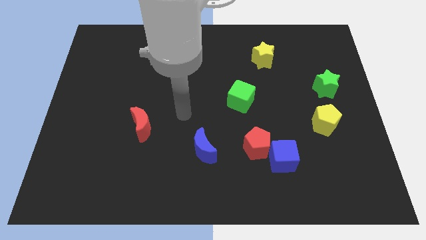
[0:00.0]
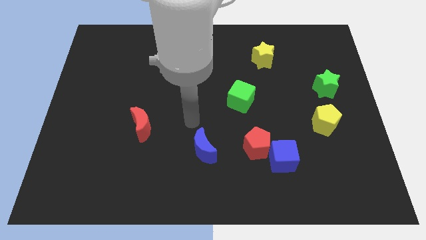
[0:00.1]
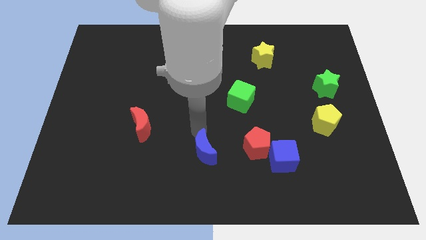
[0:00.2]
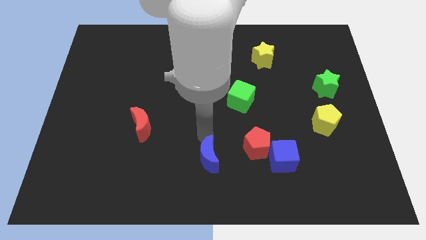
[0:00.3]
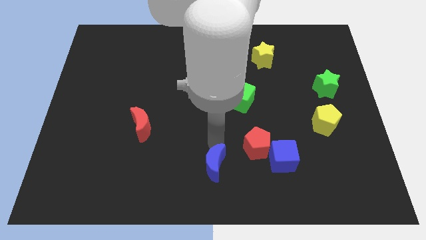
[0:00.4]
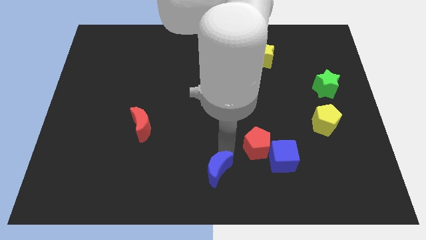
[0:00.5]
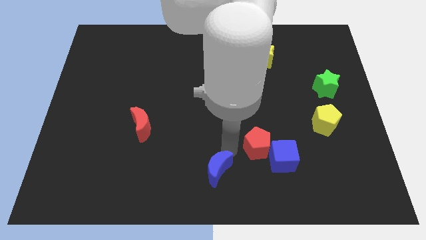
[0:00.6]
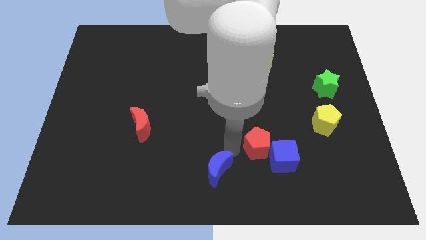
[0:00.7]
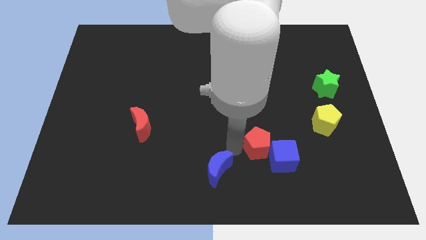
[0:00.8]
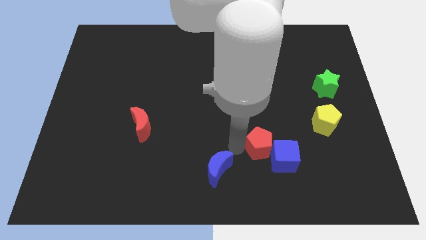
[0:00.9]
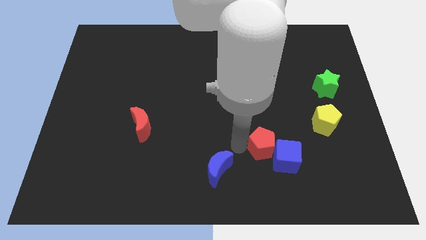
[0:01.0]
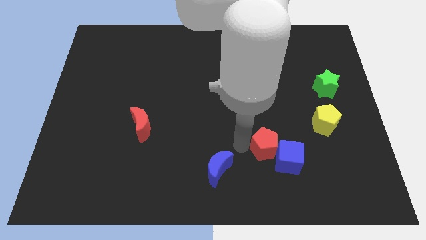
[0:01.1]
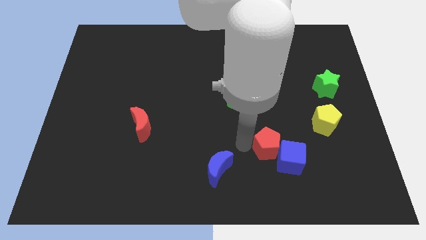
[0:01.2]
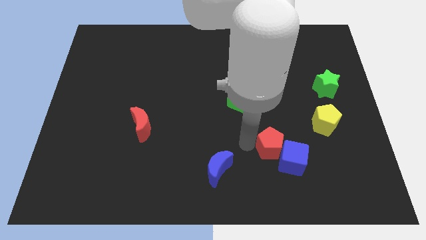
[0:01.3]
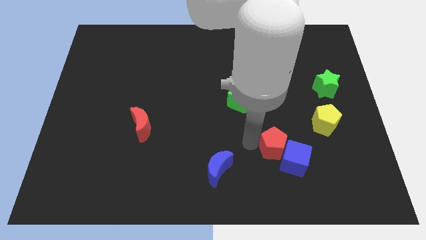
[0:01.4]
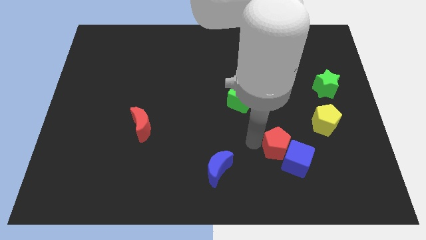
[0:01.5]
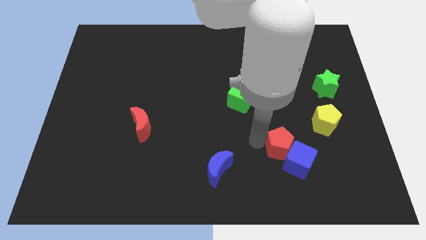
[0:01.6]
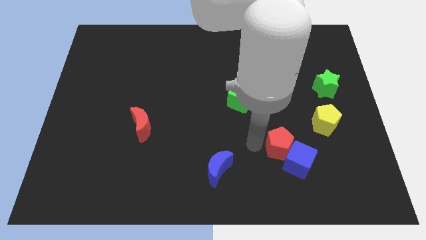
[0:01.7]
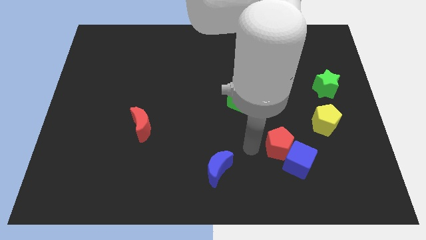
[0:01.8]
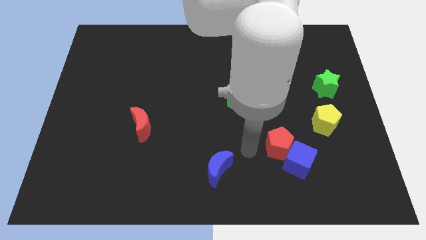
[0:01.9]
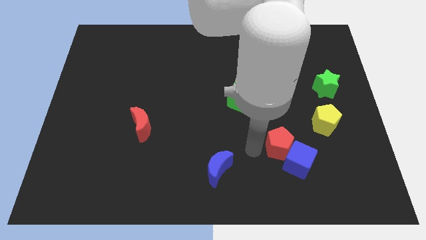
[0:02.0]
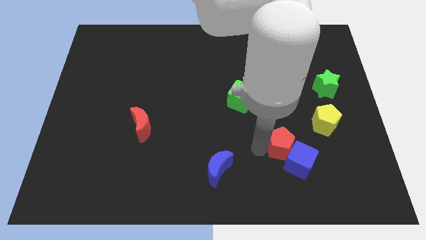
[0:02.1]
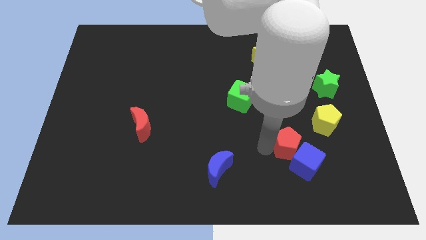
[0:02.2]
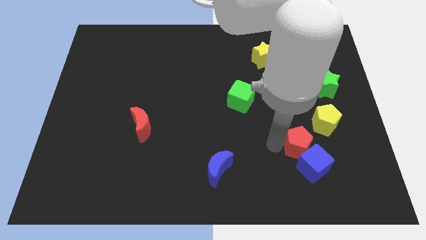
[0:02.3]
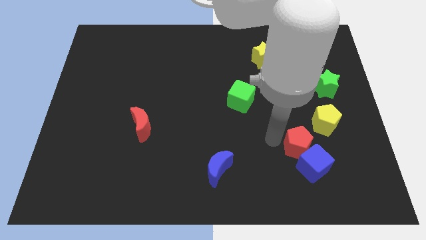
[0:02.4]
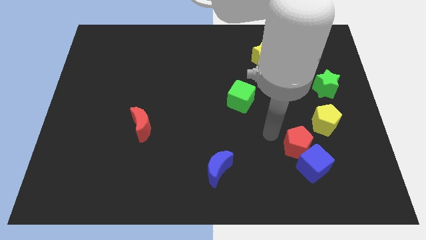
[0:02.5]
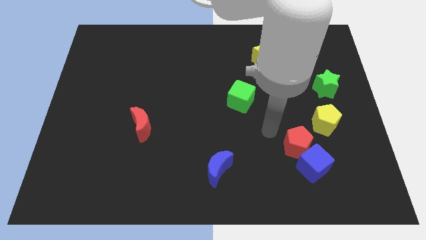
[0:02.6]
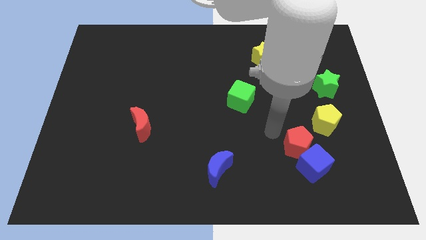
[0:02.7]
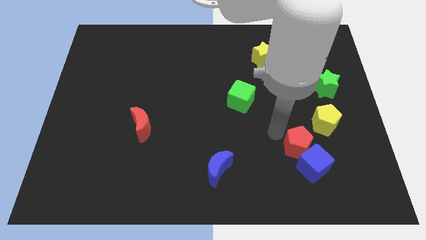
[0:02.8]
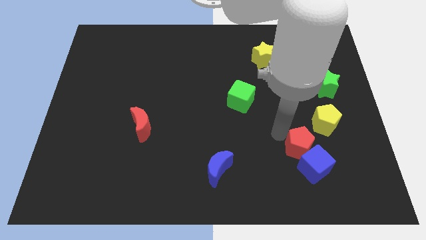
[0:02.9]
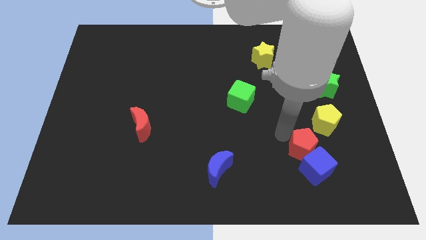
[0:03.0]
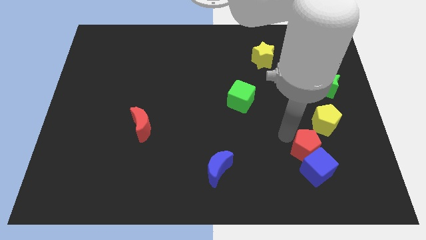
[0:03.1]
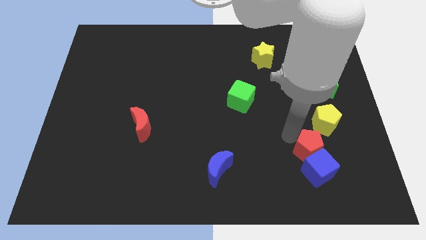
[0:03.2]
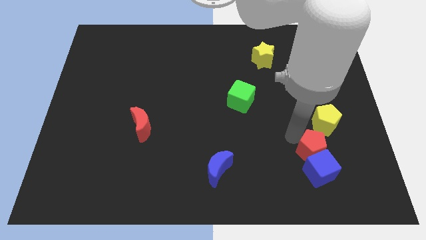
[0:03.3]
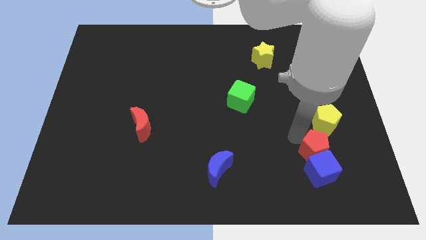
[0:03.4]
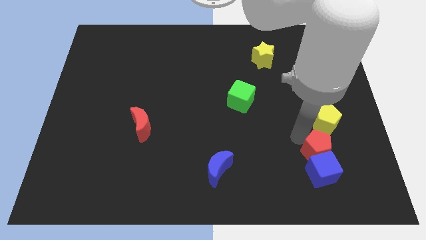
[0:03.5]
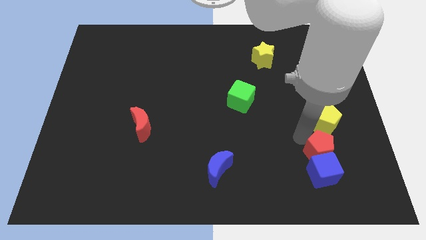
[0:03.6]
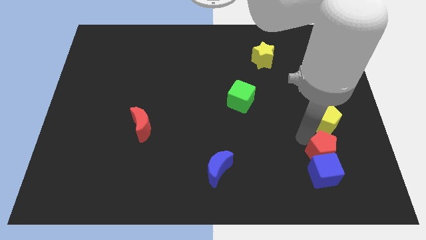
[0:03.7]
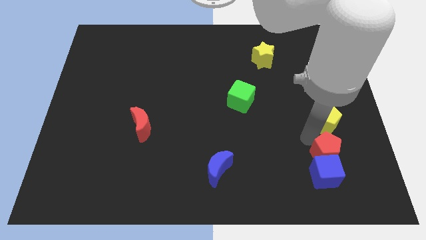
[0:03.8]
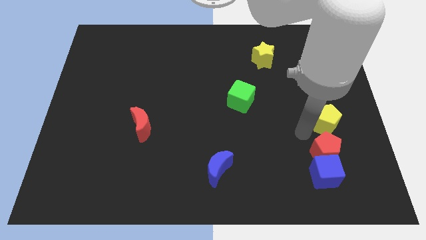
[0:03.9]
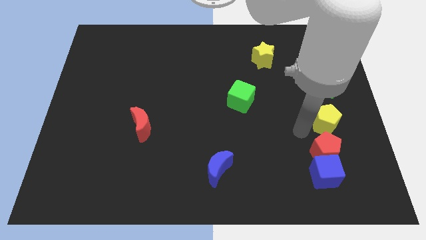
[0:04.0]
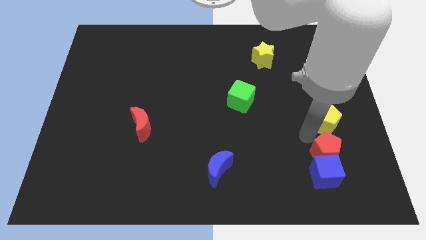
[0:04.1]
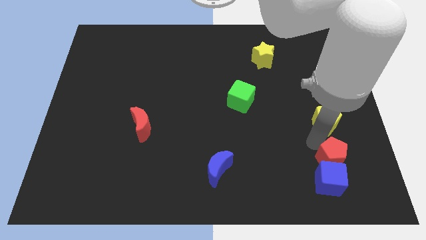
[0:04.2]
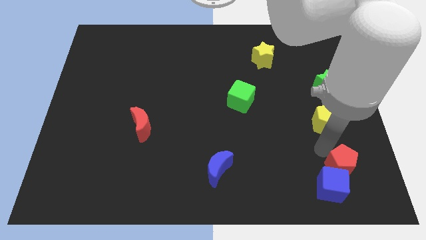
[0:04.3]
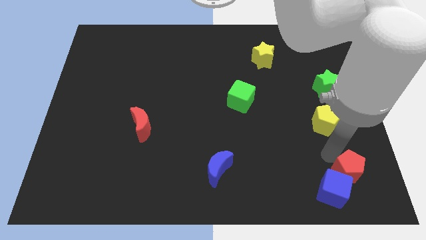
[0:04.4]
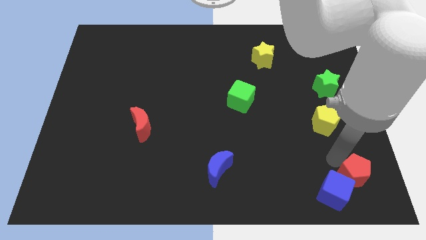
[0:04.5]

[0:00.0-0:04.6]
put the red pentagon to the bottom right of the board

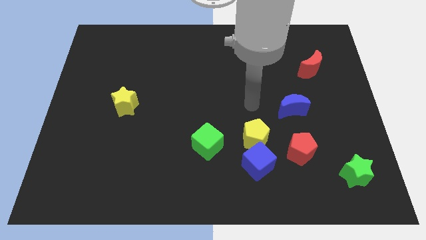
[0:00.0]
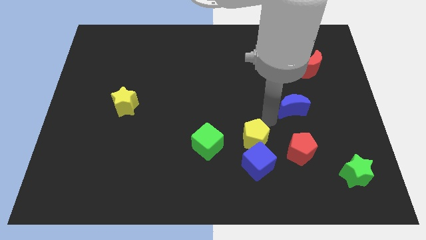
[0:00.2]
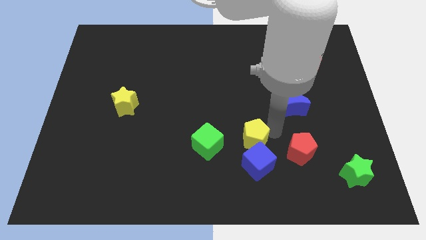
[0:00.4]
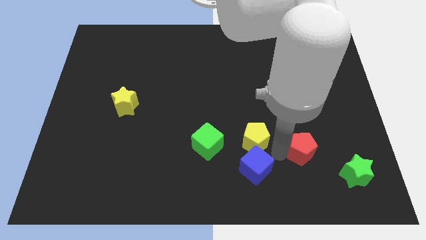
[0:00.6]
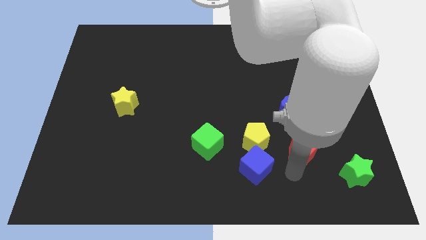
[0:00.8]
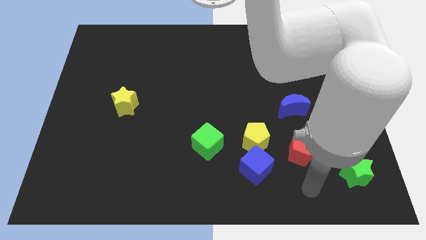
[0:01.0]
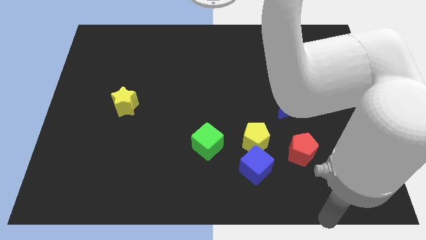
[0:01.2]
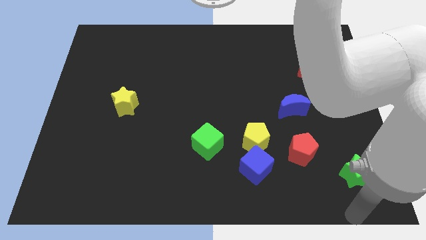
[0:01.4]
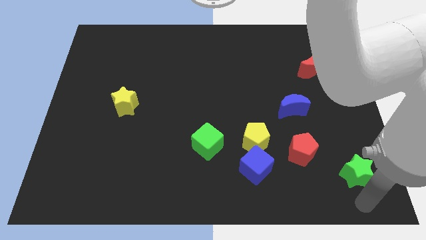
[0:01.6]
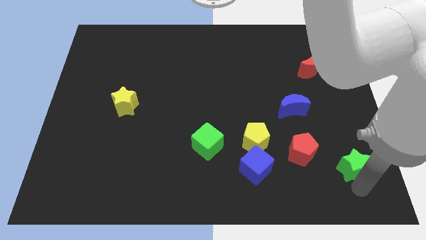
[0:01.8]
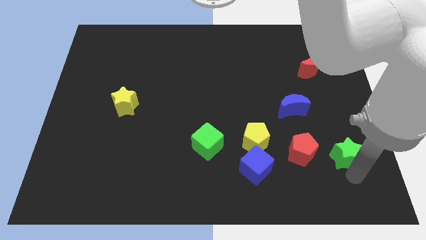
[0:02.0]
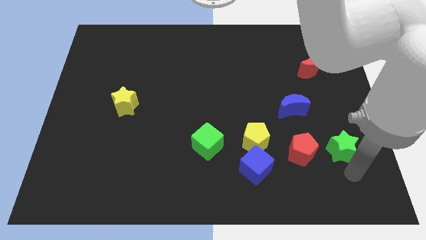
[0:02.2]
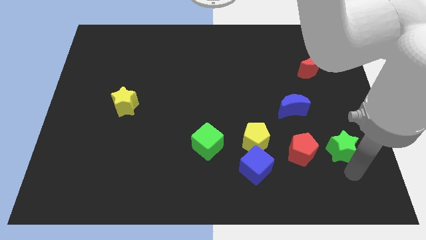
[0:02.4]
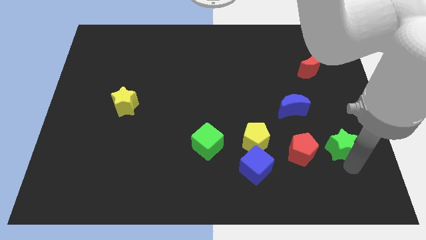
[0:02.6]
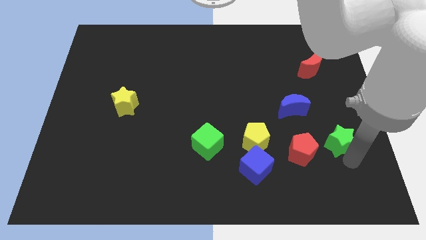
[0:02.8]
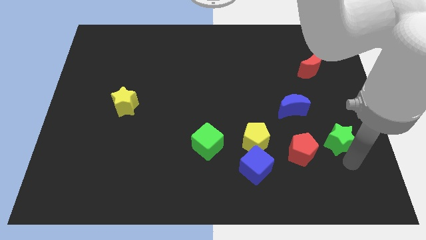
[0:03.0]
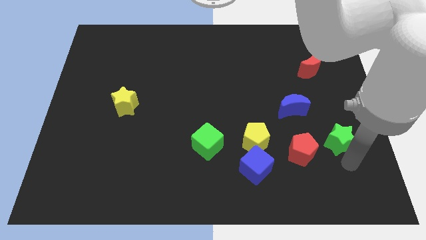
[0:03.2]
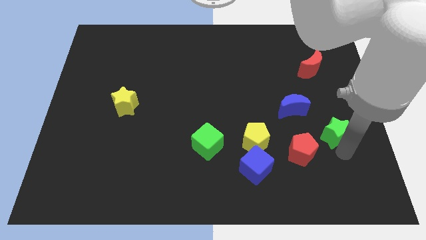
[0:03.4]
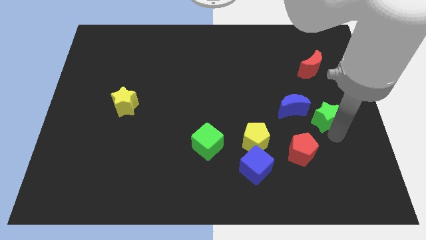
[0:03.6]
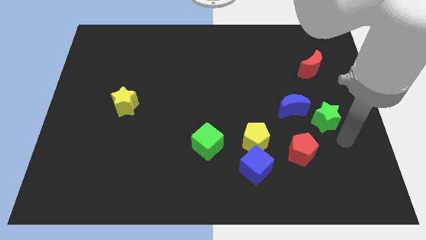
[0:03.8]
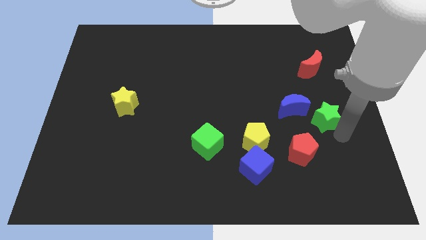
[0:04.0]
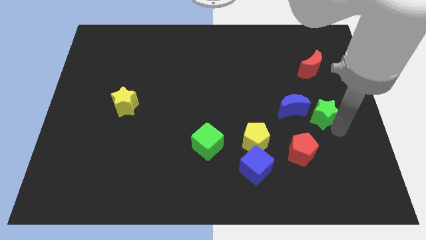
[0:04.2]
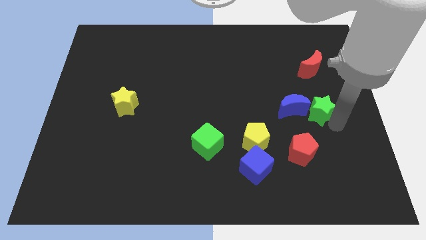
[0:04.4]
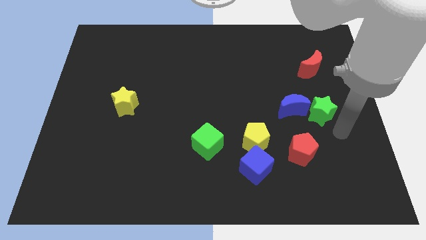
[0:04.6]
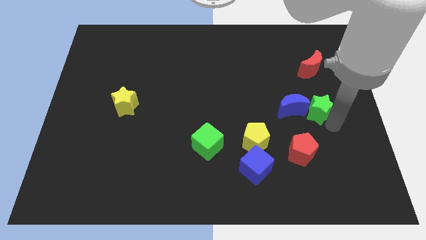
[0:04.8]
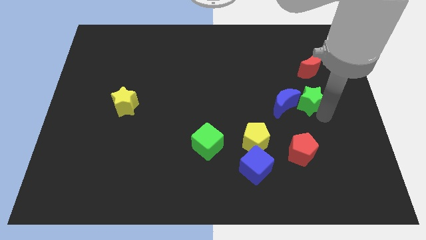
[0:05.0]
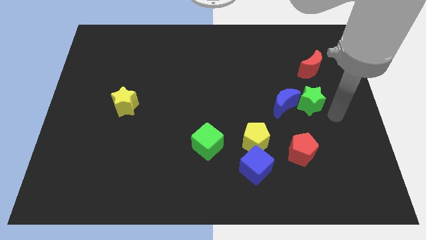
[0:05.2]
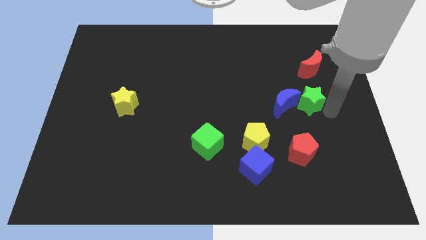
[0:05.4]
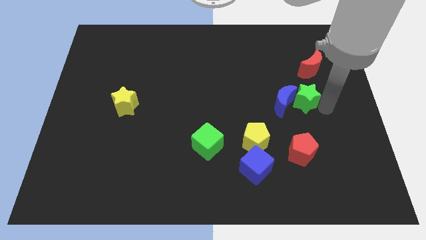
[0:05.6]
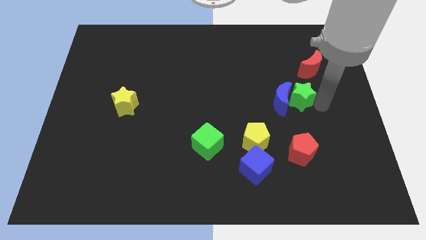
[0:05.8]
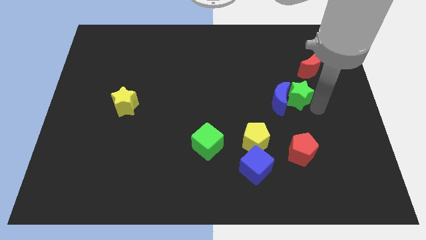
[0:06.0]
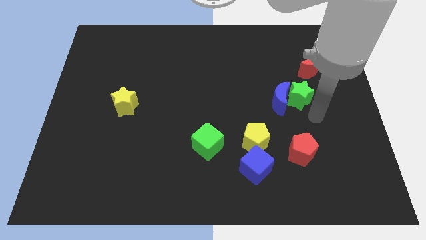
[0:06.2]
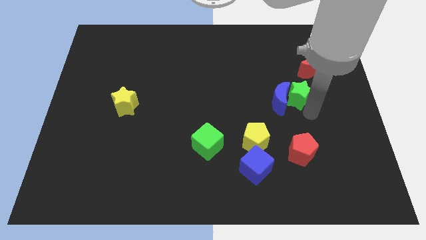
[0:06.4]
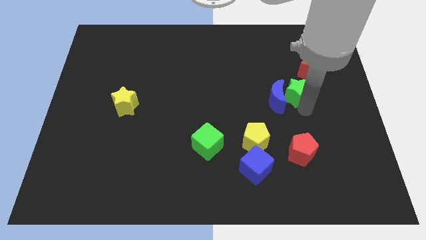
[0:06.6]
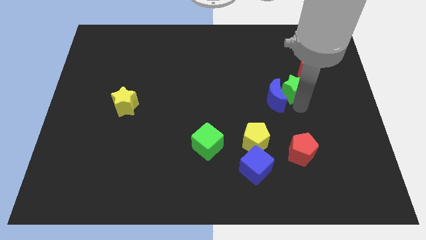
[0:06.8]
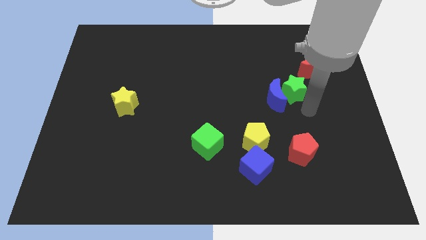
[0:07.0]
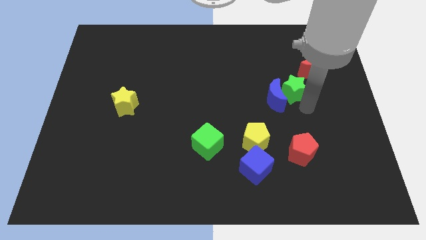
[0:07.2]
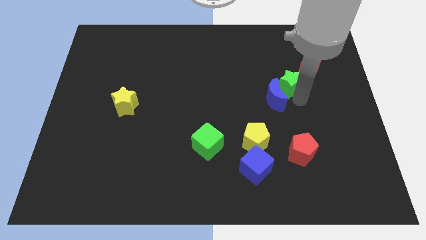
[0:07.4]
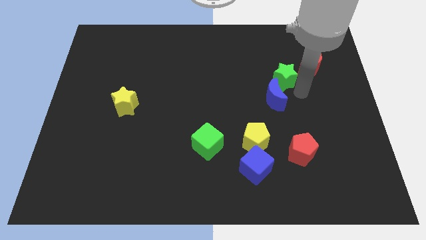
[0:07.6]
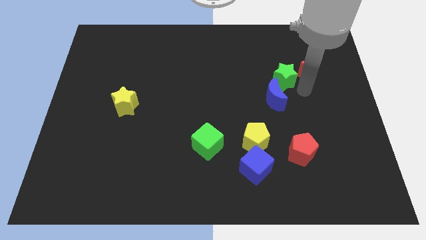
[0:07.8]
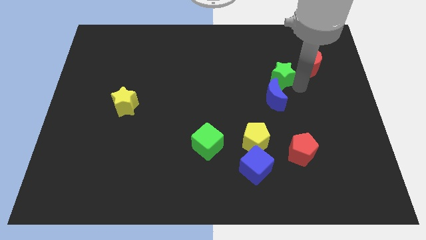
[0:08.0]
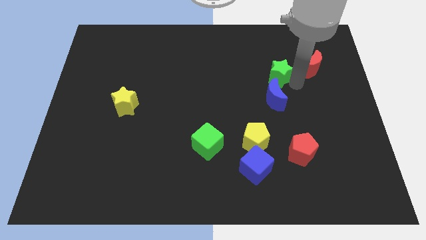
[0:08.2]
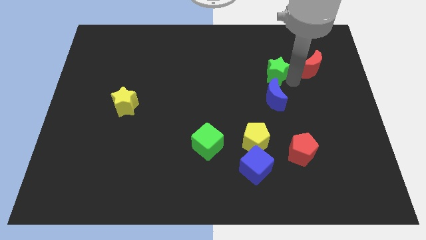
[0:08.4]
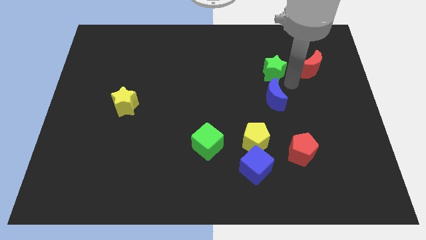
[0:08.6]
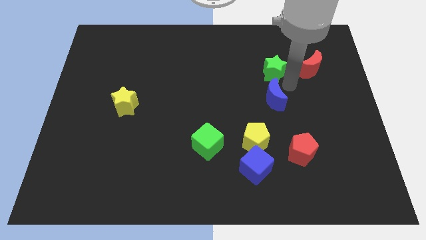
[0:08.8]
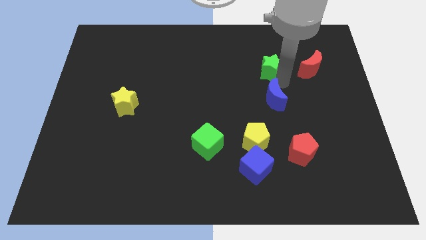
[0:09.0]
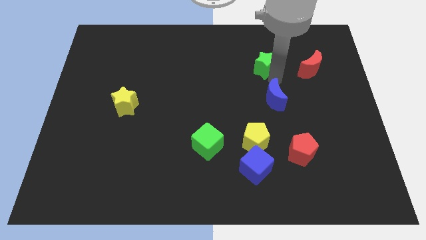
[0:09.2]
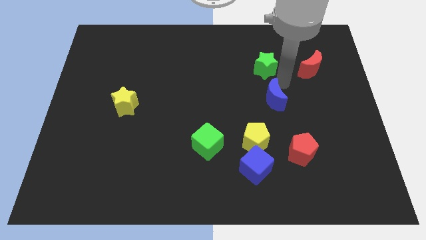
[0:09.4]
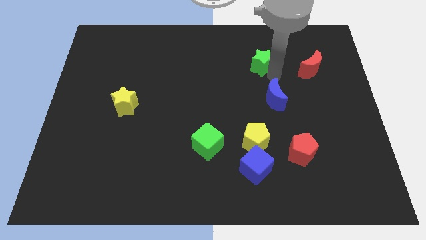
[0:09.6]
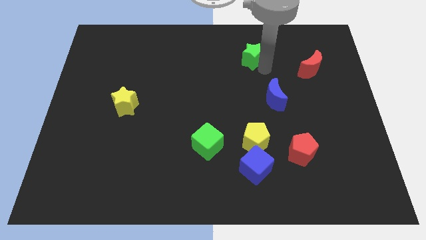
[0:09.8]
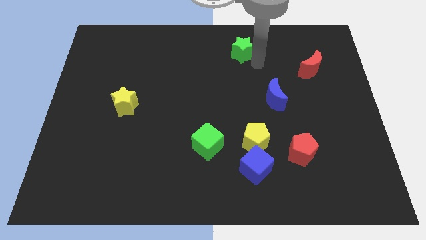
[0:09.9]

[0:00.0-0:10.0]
move the green star to the towards your base
